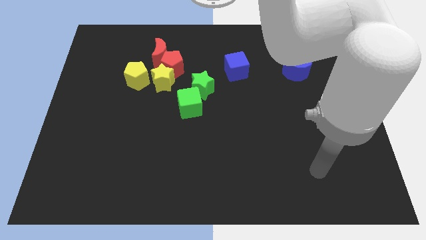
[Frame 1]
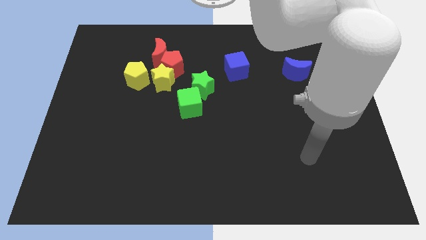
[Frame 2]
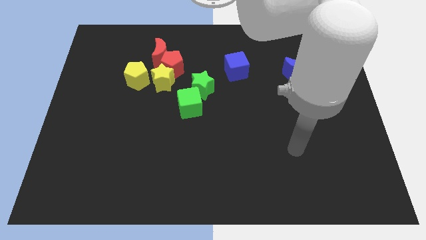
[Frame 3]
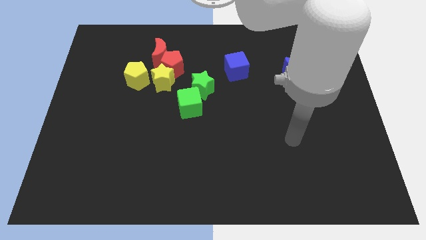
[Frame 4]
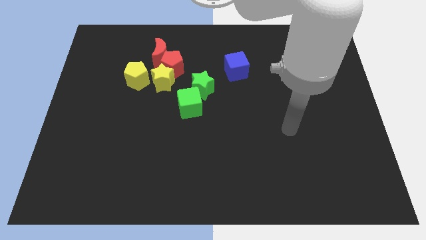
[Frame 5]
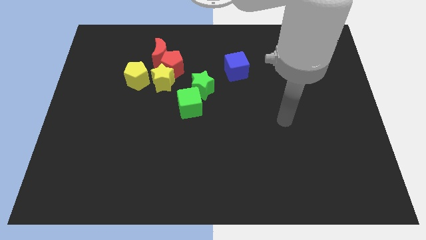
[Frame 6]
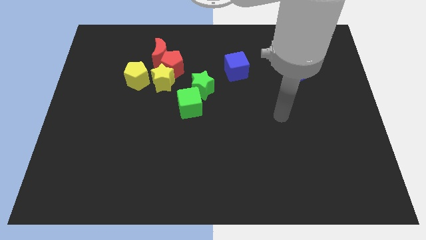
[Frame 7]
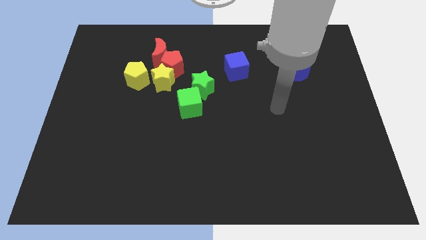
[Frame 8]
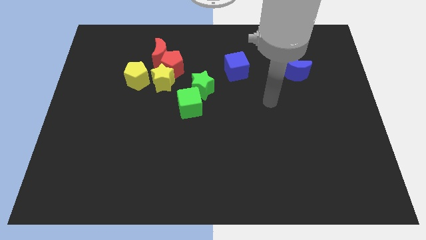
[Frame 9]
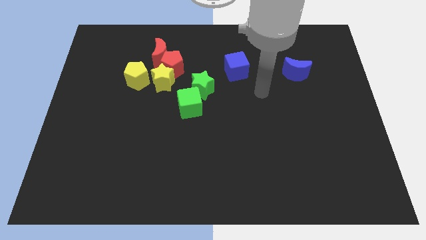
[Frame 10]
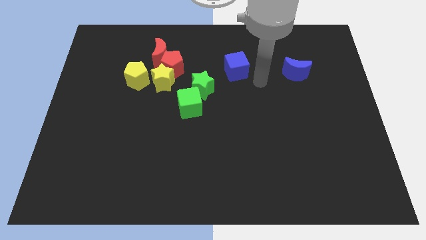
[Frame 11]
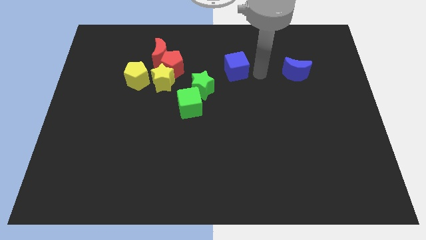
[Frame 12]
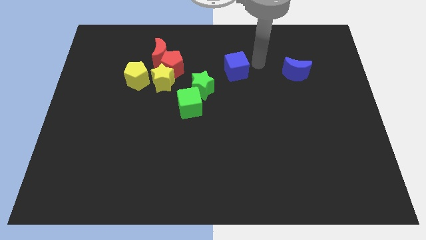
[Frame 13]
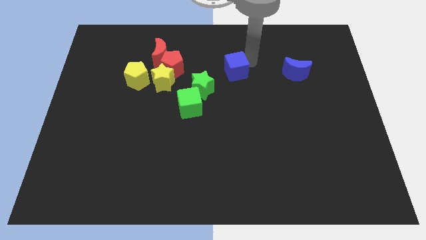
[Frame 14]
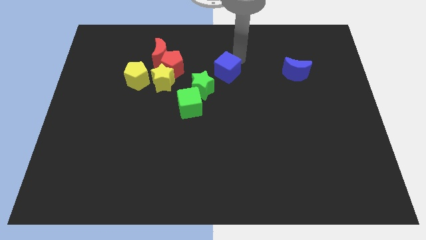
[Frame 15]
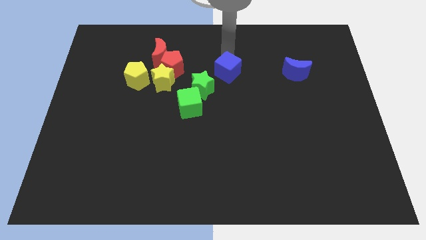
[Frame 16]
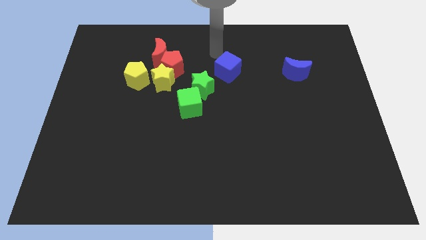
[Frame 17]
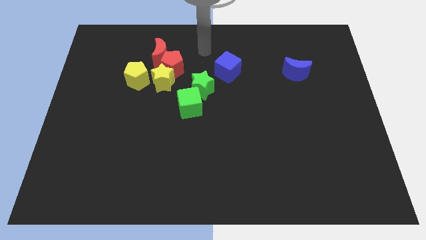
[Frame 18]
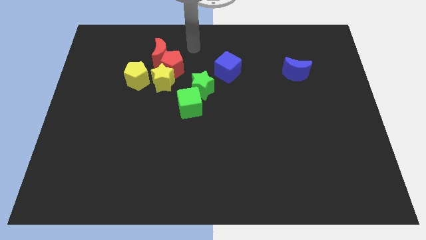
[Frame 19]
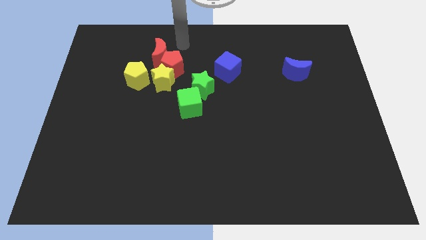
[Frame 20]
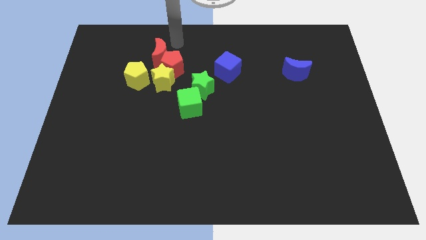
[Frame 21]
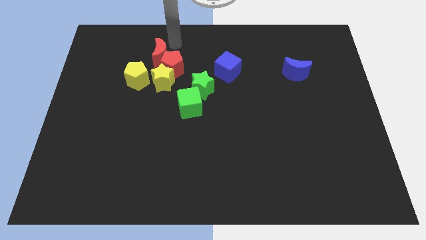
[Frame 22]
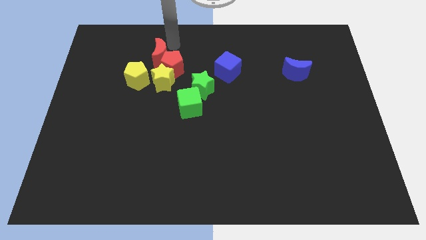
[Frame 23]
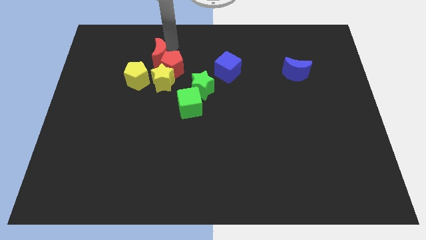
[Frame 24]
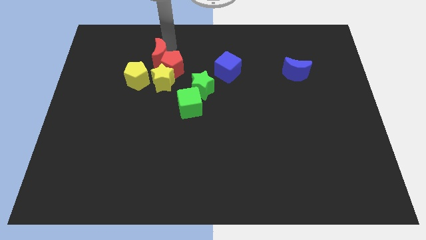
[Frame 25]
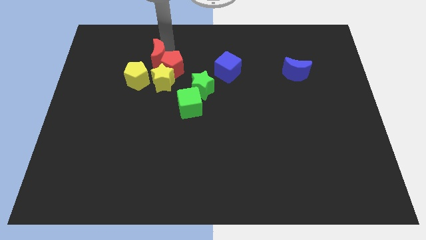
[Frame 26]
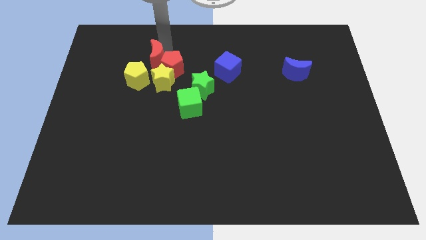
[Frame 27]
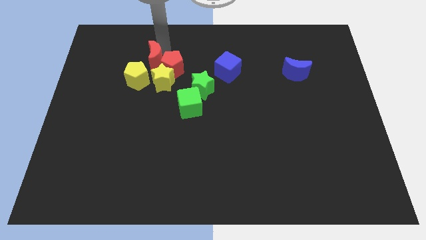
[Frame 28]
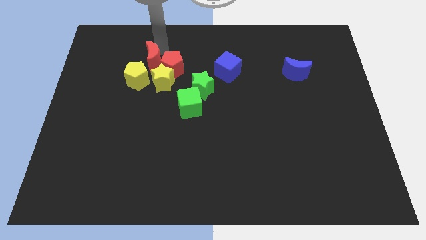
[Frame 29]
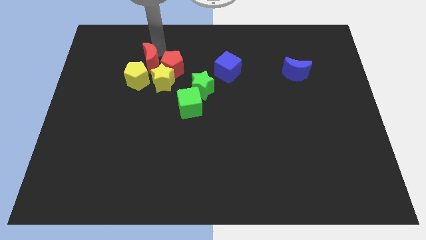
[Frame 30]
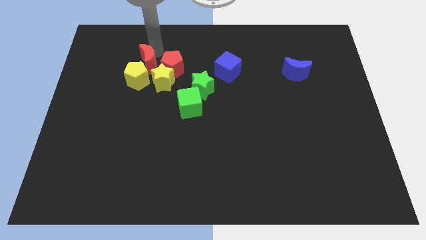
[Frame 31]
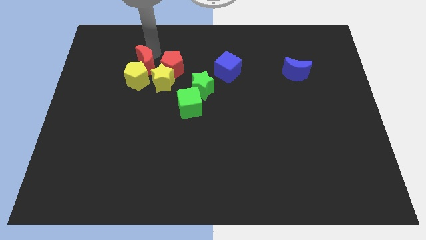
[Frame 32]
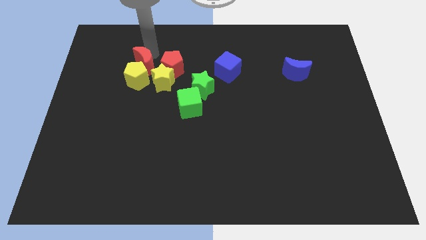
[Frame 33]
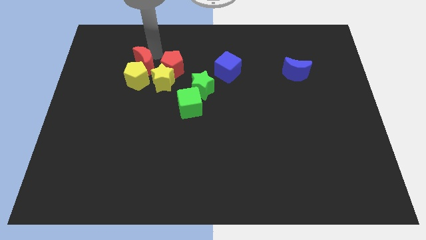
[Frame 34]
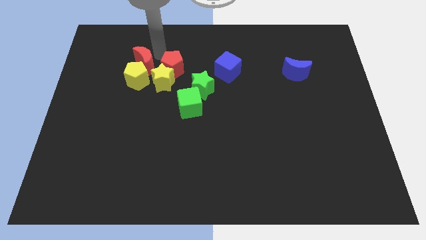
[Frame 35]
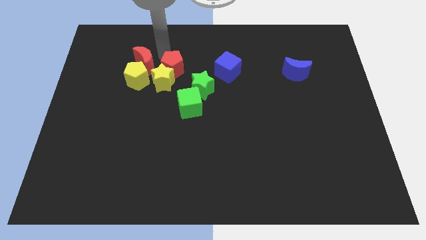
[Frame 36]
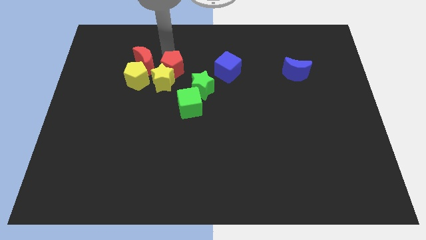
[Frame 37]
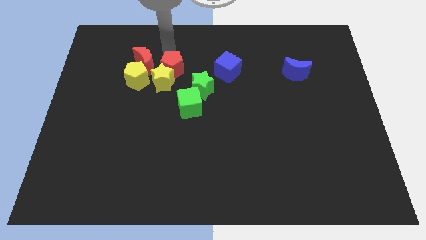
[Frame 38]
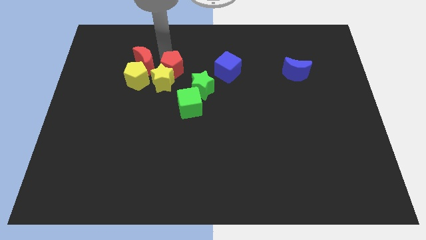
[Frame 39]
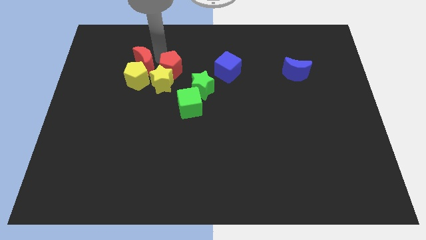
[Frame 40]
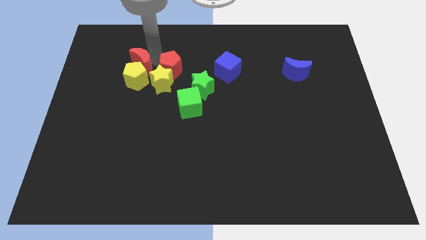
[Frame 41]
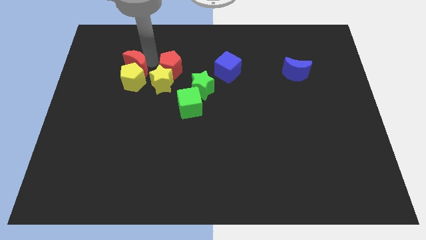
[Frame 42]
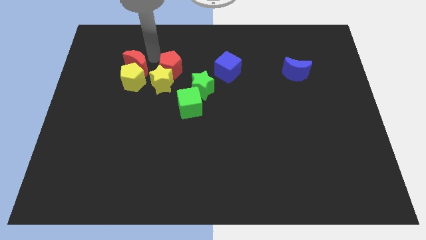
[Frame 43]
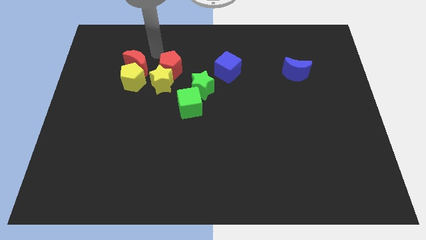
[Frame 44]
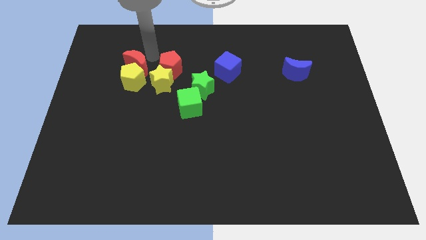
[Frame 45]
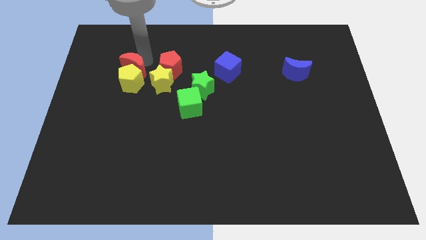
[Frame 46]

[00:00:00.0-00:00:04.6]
push the red moon diagonally down and to the left slightly

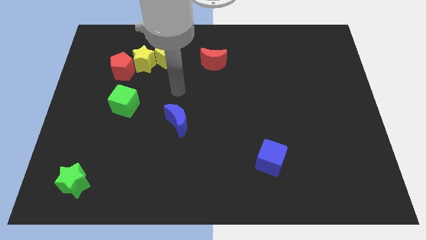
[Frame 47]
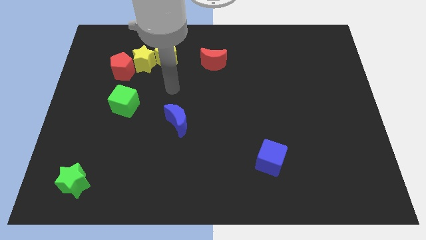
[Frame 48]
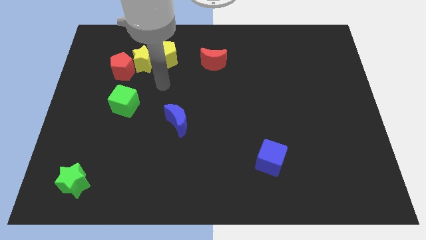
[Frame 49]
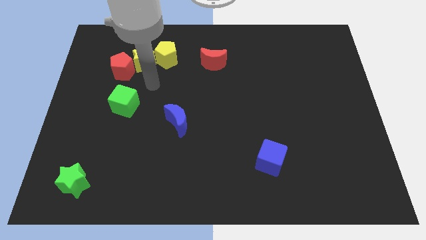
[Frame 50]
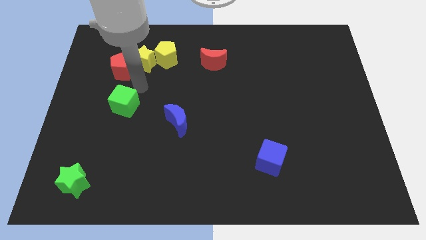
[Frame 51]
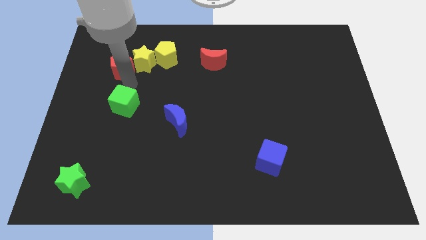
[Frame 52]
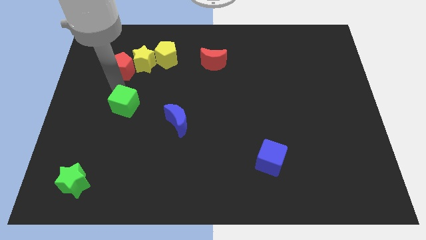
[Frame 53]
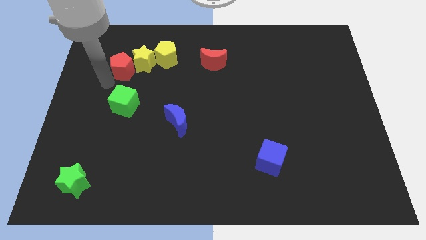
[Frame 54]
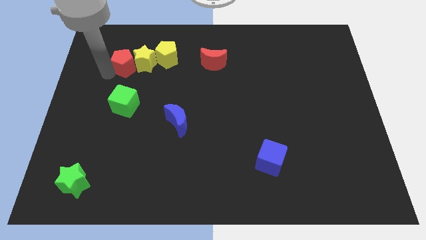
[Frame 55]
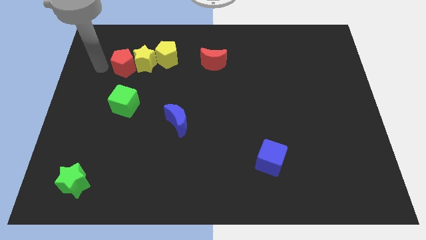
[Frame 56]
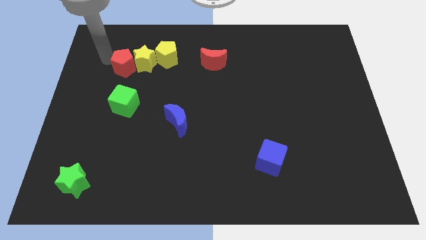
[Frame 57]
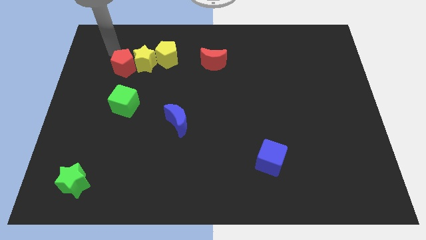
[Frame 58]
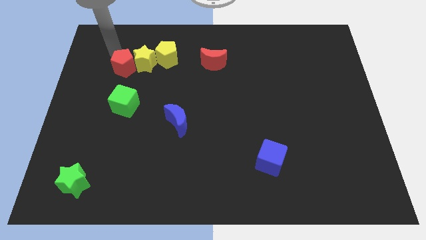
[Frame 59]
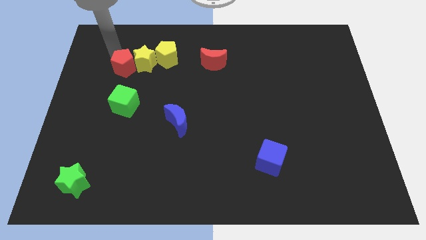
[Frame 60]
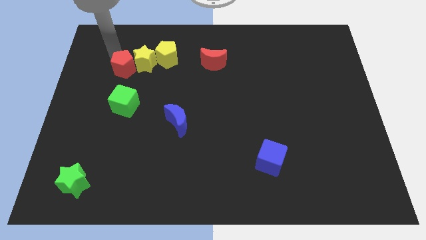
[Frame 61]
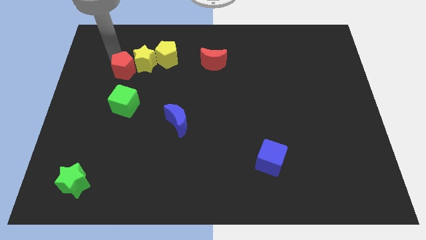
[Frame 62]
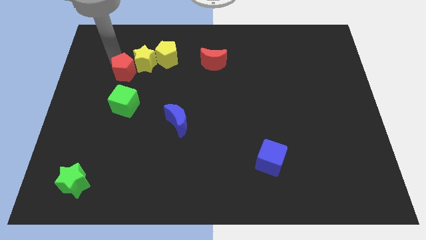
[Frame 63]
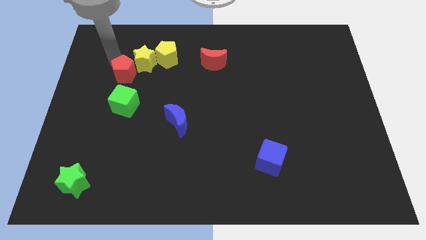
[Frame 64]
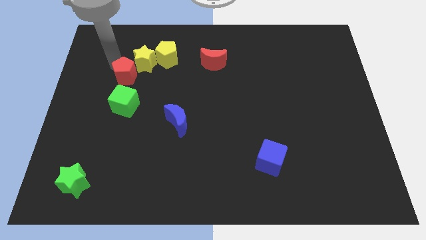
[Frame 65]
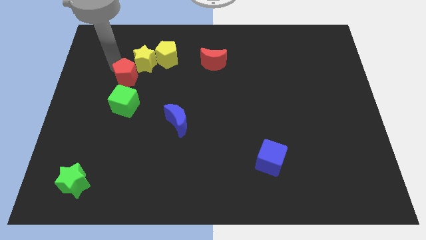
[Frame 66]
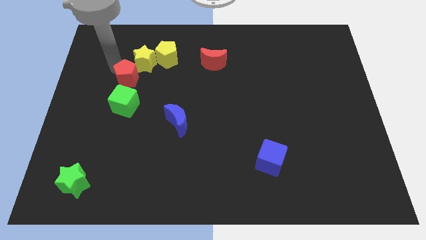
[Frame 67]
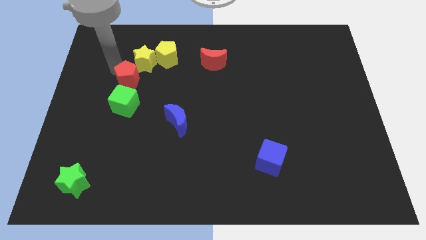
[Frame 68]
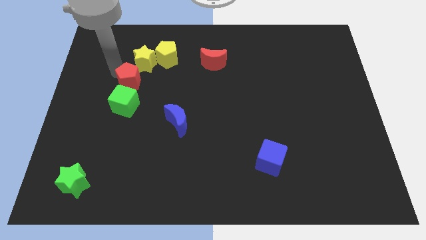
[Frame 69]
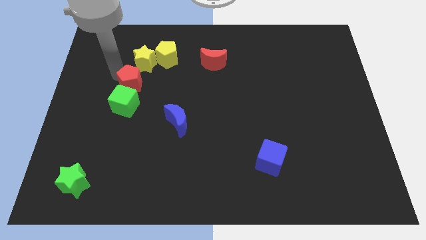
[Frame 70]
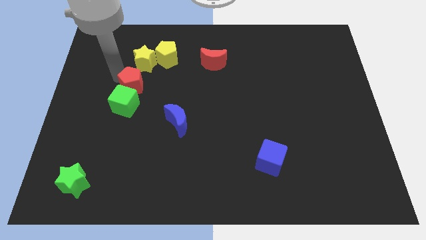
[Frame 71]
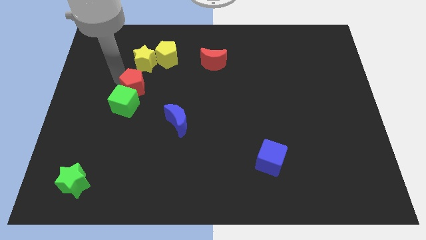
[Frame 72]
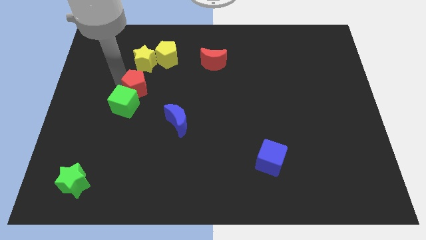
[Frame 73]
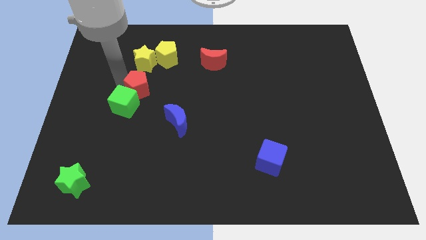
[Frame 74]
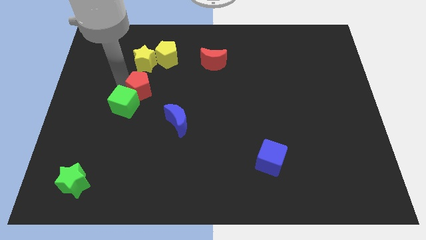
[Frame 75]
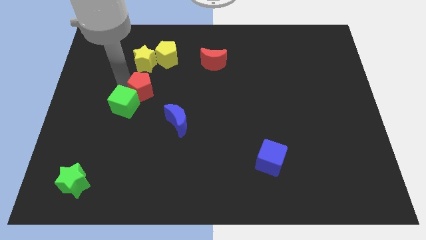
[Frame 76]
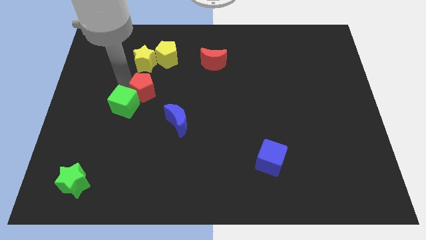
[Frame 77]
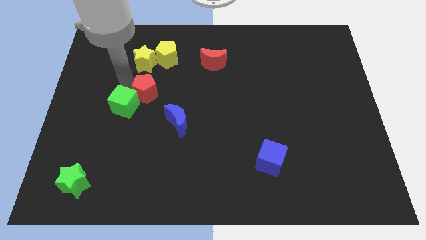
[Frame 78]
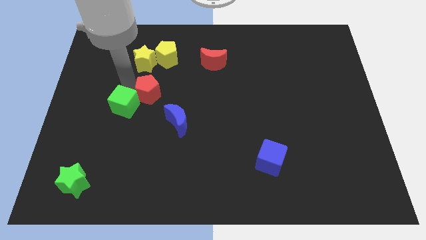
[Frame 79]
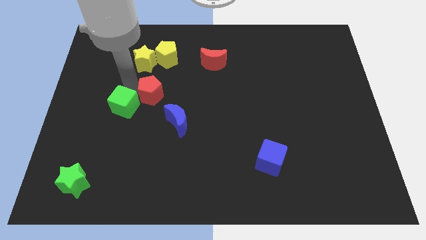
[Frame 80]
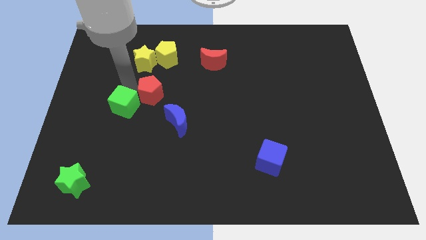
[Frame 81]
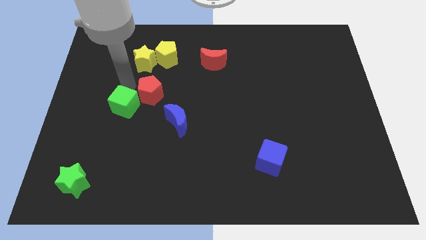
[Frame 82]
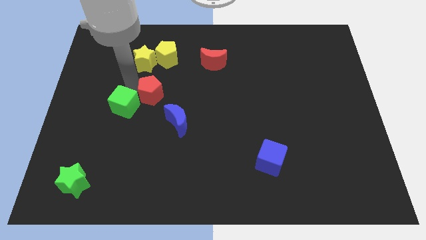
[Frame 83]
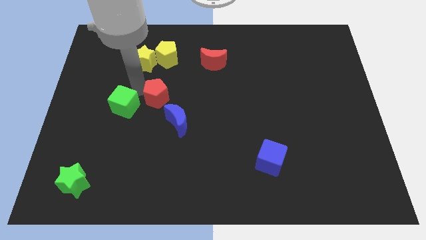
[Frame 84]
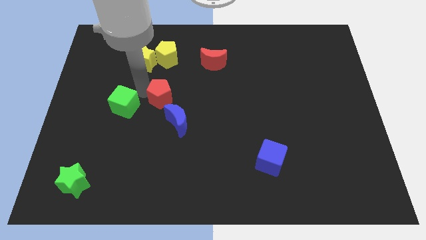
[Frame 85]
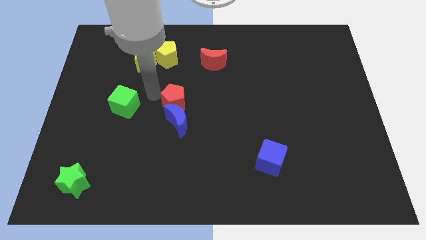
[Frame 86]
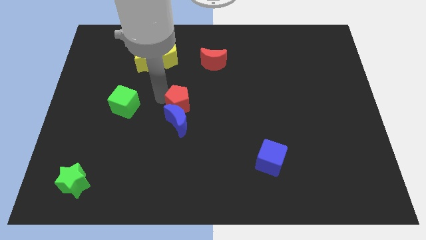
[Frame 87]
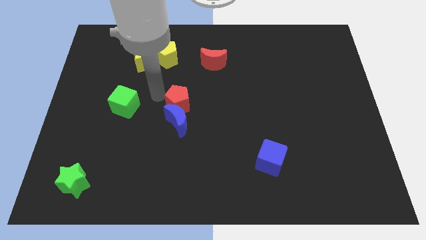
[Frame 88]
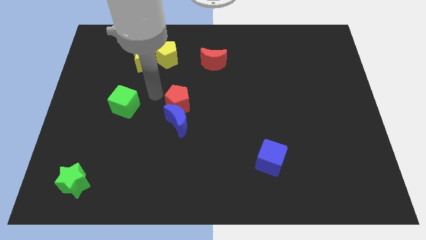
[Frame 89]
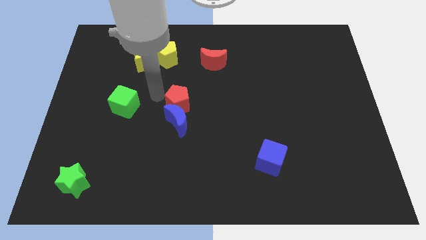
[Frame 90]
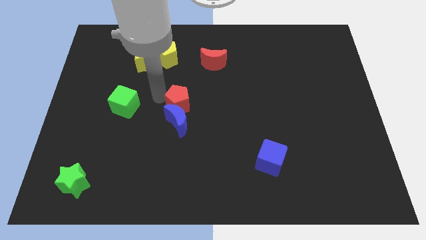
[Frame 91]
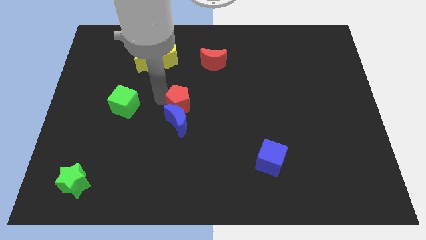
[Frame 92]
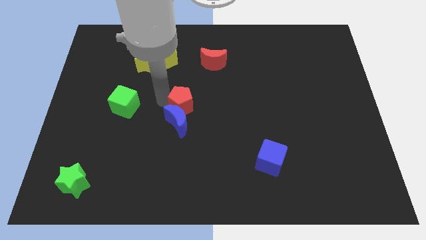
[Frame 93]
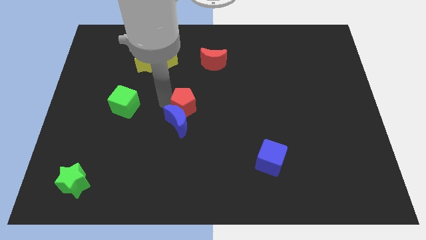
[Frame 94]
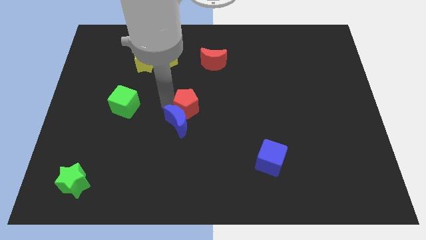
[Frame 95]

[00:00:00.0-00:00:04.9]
move the red pentagon down and right diagonally
